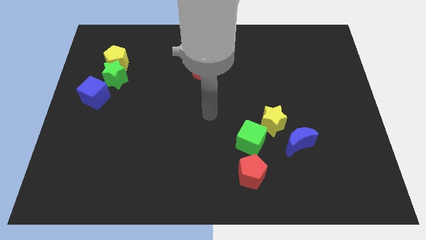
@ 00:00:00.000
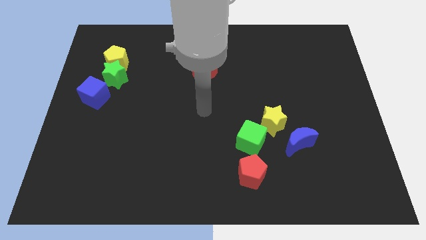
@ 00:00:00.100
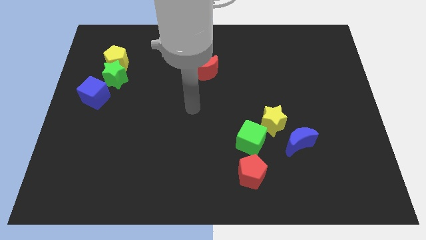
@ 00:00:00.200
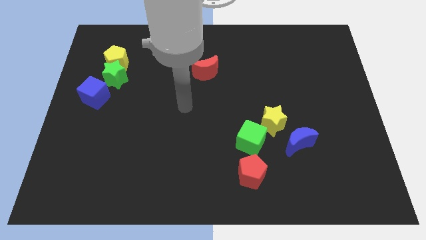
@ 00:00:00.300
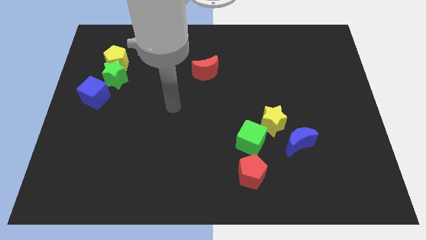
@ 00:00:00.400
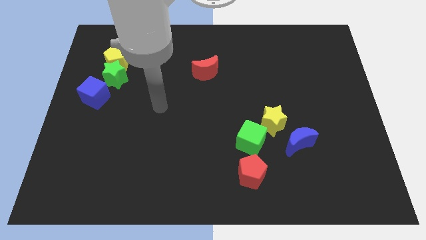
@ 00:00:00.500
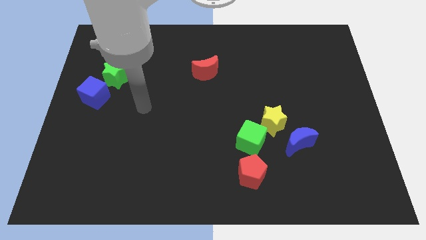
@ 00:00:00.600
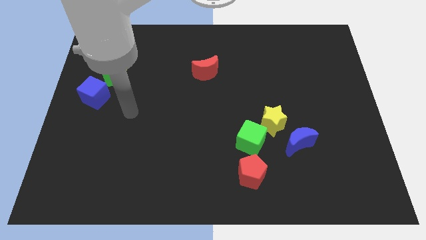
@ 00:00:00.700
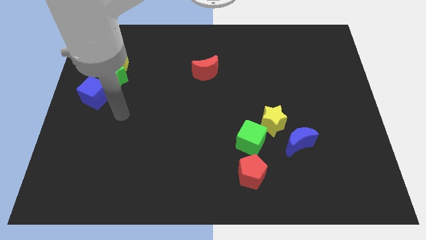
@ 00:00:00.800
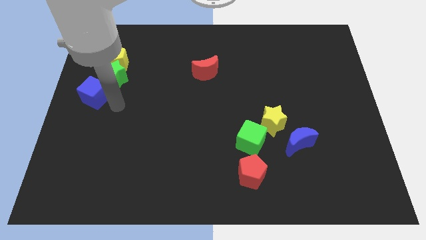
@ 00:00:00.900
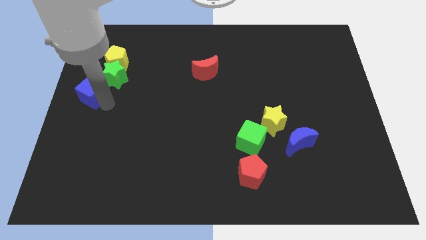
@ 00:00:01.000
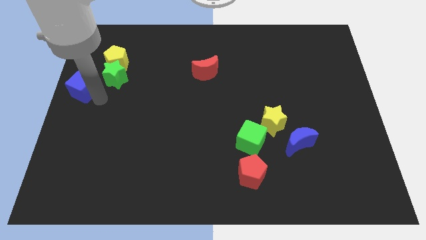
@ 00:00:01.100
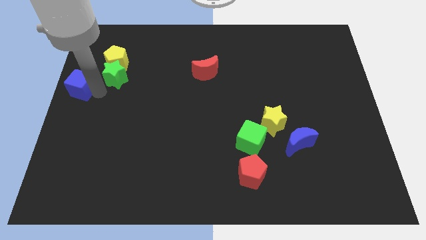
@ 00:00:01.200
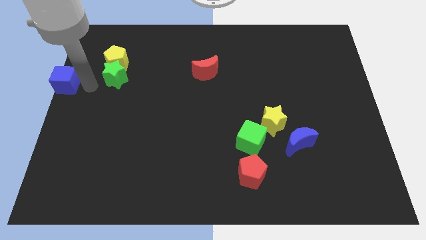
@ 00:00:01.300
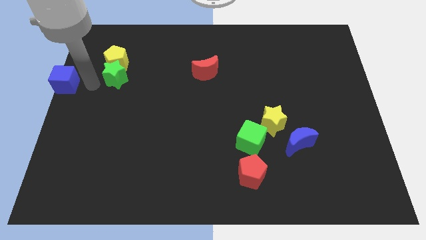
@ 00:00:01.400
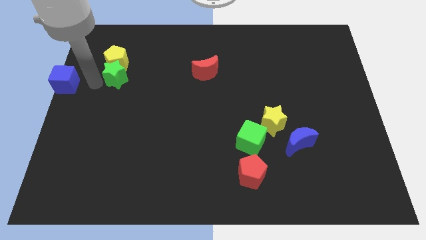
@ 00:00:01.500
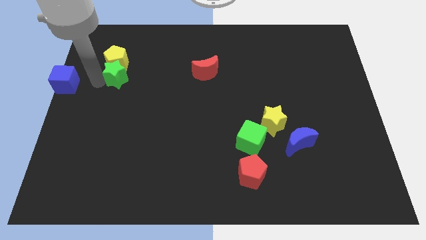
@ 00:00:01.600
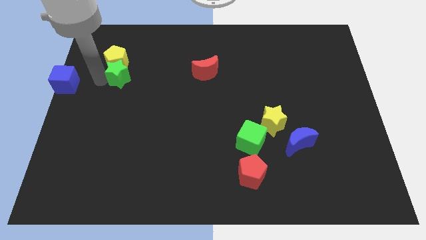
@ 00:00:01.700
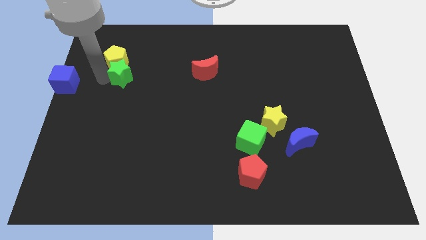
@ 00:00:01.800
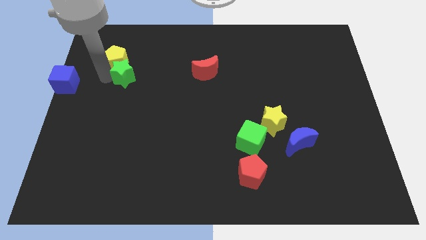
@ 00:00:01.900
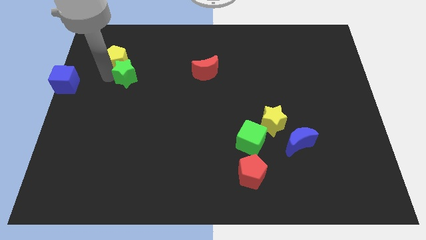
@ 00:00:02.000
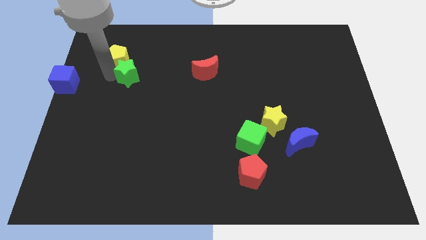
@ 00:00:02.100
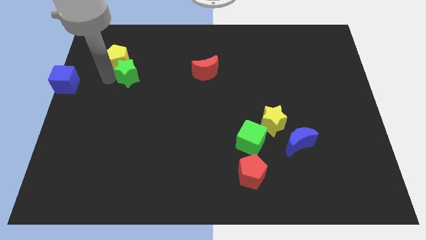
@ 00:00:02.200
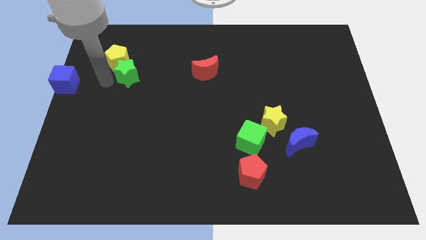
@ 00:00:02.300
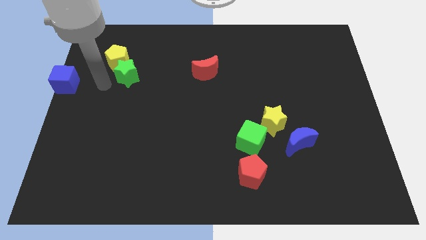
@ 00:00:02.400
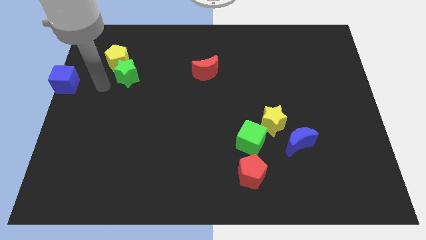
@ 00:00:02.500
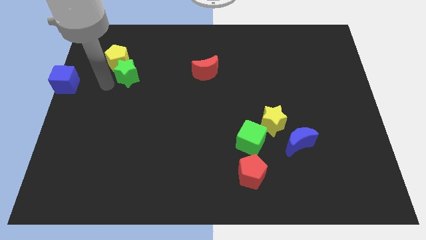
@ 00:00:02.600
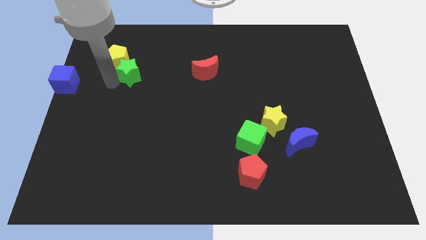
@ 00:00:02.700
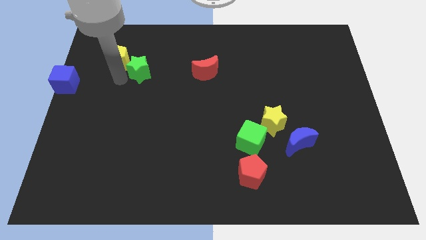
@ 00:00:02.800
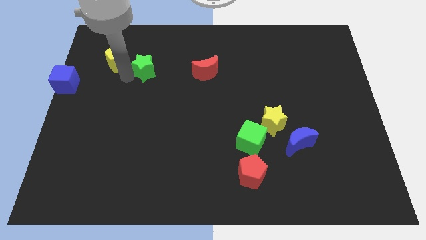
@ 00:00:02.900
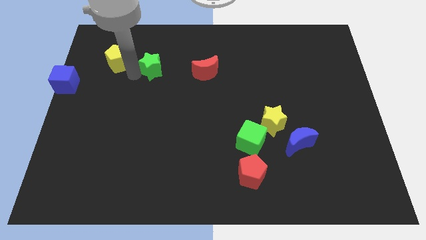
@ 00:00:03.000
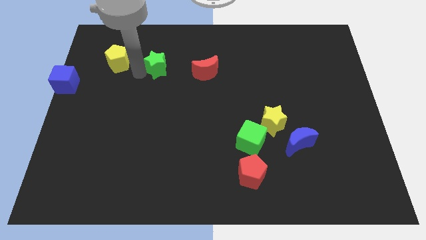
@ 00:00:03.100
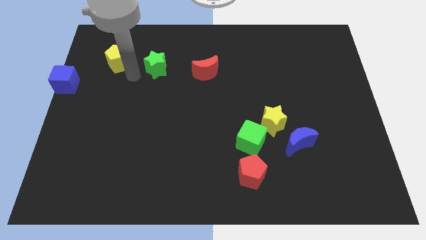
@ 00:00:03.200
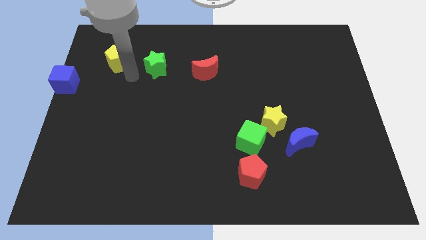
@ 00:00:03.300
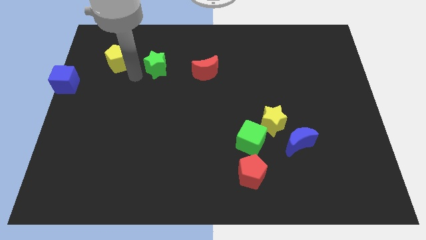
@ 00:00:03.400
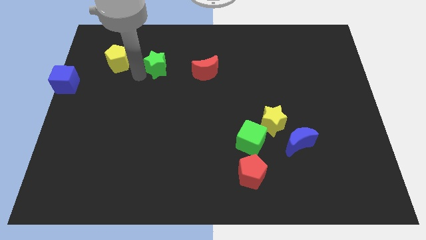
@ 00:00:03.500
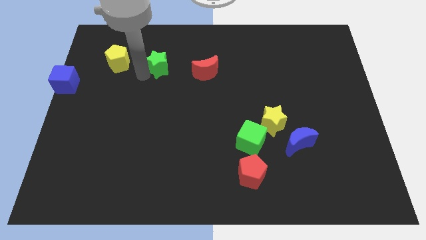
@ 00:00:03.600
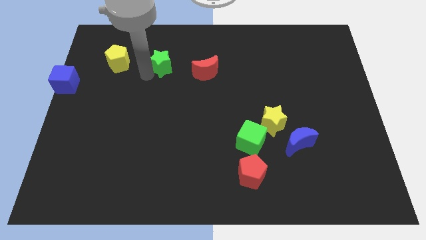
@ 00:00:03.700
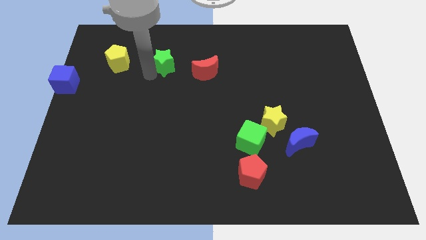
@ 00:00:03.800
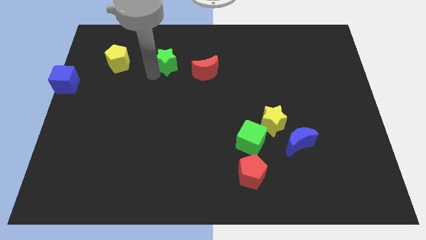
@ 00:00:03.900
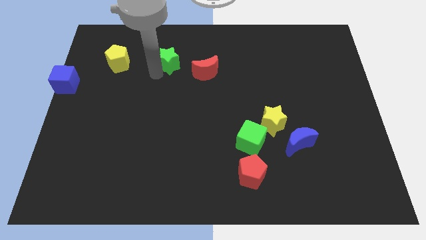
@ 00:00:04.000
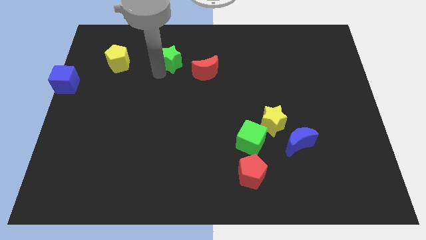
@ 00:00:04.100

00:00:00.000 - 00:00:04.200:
slide the green star to the top left side of the red moon

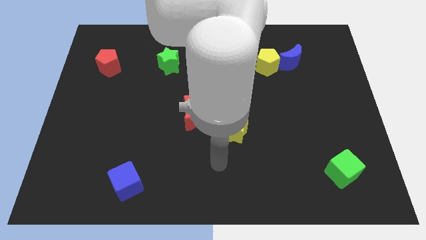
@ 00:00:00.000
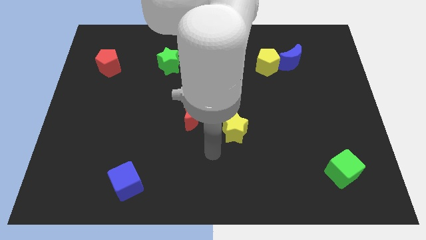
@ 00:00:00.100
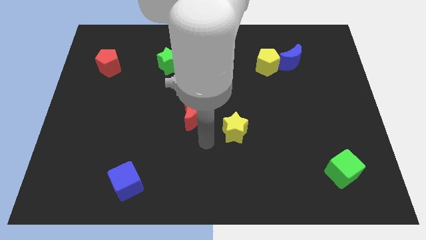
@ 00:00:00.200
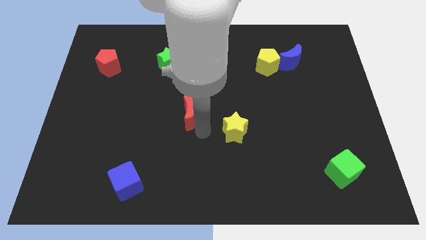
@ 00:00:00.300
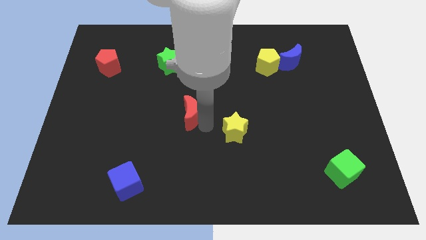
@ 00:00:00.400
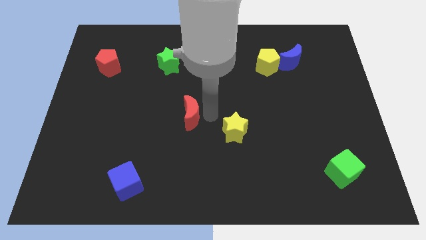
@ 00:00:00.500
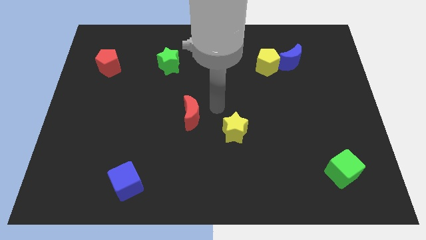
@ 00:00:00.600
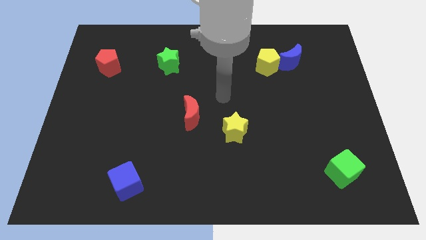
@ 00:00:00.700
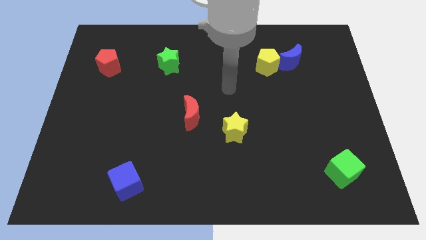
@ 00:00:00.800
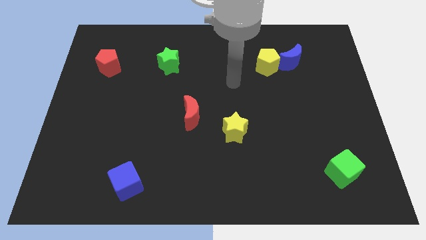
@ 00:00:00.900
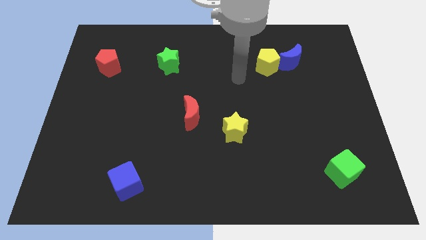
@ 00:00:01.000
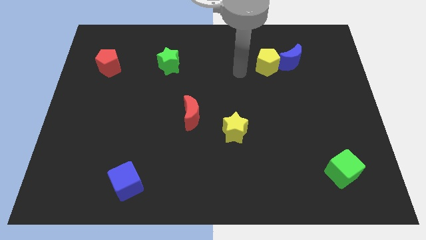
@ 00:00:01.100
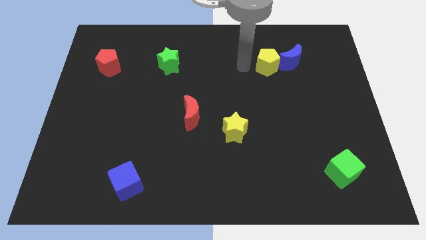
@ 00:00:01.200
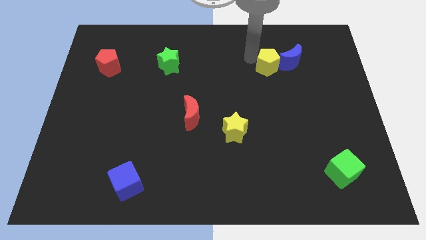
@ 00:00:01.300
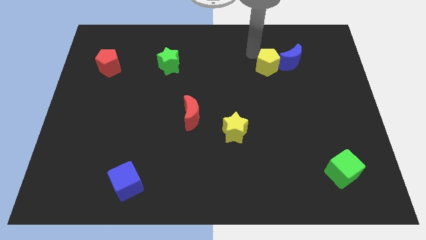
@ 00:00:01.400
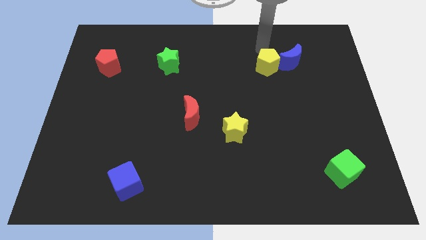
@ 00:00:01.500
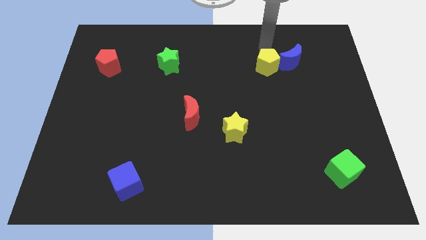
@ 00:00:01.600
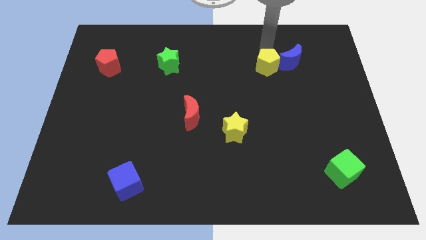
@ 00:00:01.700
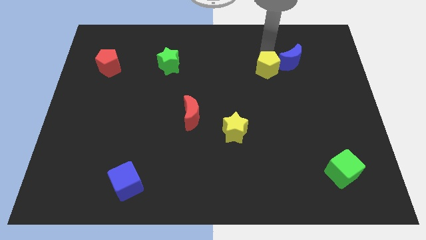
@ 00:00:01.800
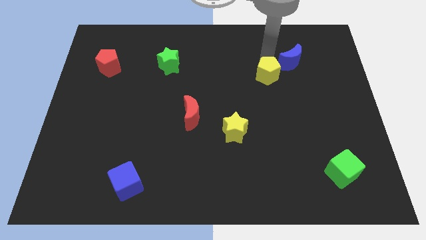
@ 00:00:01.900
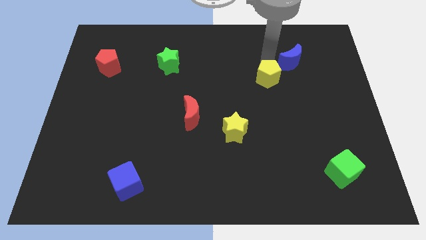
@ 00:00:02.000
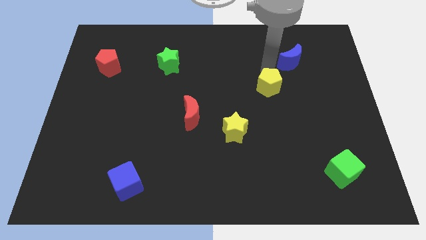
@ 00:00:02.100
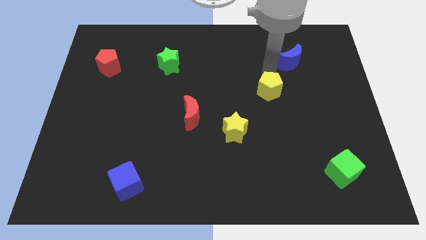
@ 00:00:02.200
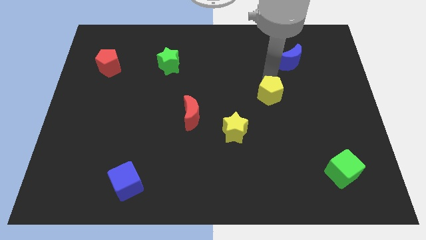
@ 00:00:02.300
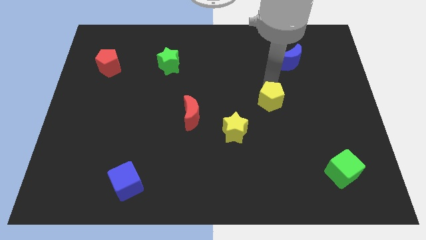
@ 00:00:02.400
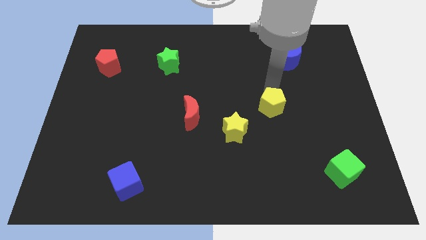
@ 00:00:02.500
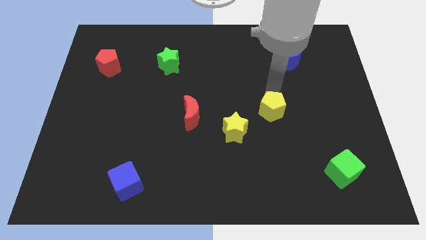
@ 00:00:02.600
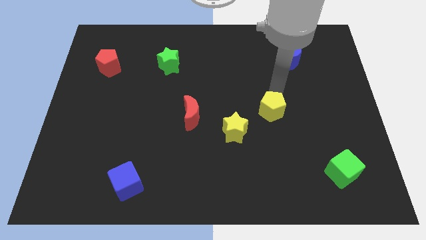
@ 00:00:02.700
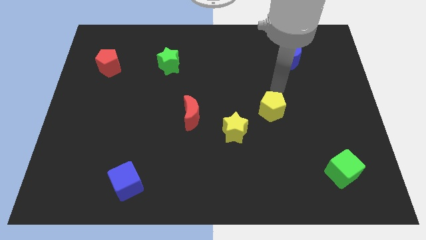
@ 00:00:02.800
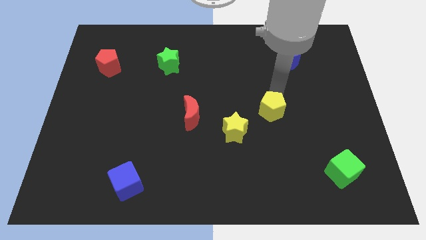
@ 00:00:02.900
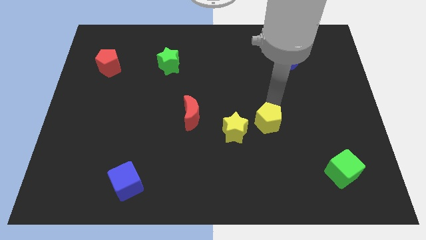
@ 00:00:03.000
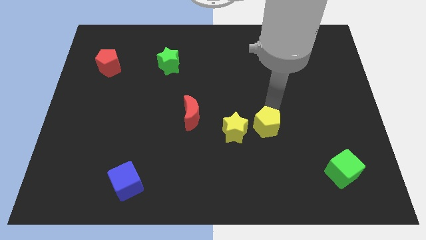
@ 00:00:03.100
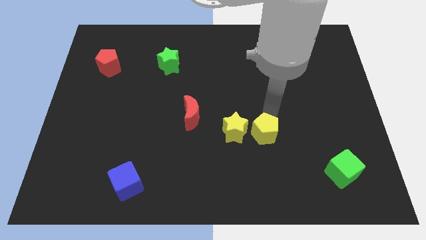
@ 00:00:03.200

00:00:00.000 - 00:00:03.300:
push the yellow pentagon to the bottom right side of the yellow star

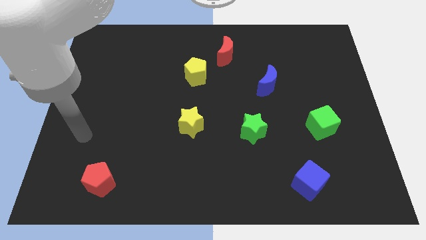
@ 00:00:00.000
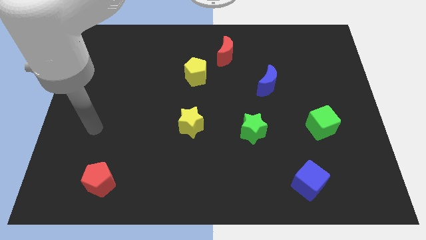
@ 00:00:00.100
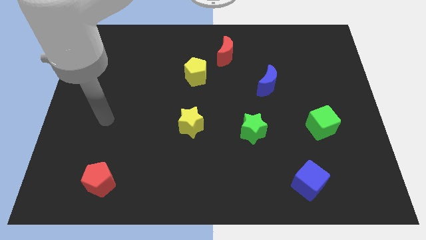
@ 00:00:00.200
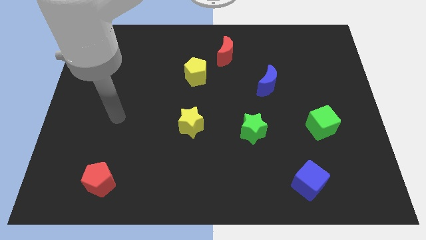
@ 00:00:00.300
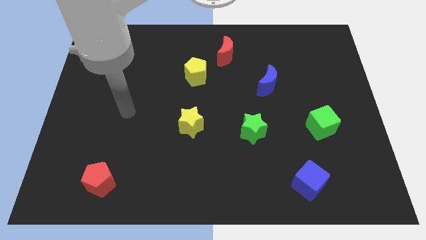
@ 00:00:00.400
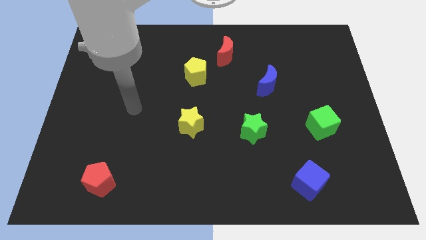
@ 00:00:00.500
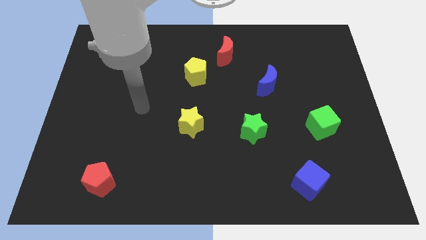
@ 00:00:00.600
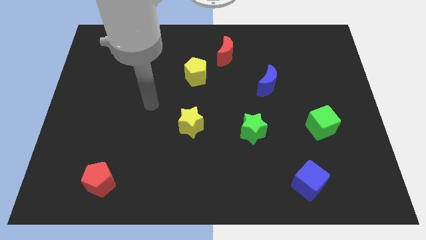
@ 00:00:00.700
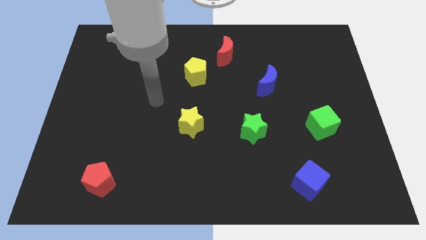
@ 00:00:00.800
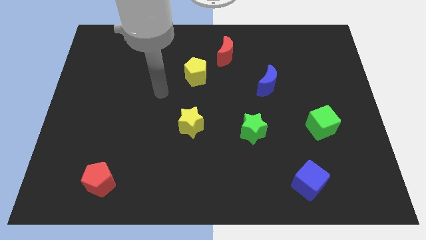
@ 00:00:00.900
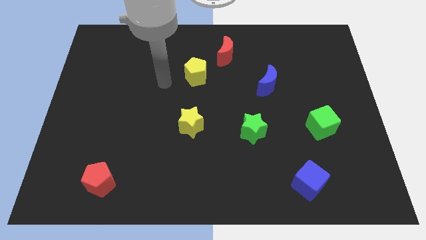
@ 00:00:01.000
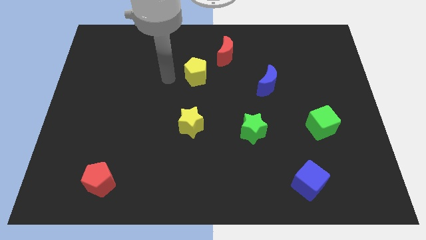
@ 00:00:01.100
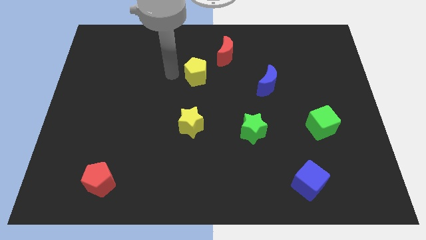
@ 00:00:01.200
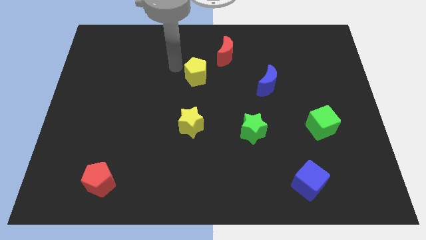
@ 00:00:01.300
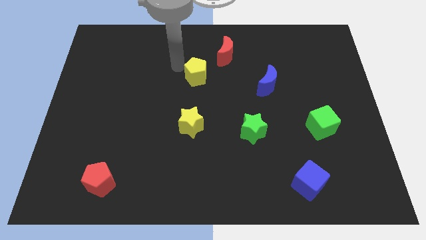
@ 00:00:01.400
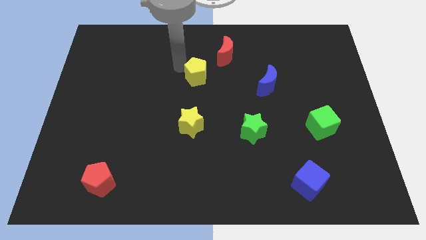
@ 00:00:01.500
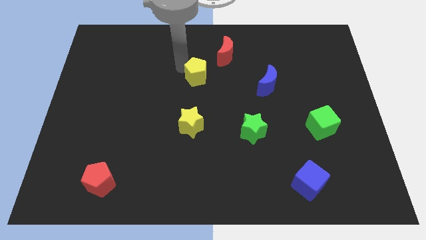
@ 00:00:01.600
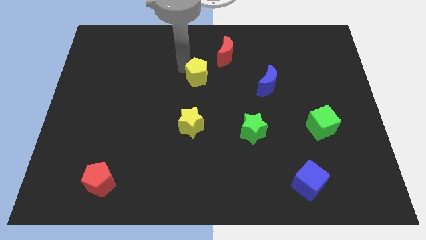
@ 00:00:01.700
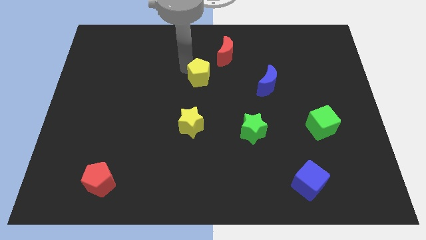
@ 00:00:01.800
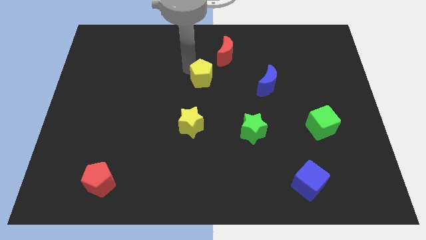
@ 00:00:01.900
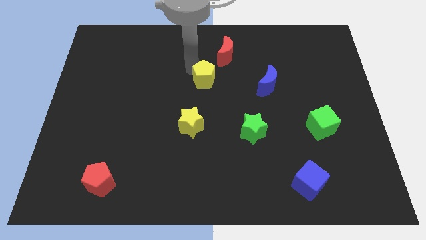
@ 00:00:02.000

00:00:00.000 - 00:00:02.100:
put the yellow pentagon to the left of the blue moon
